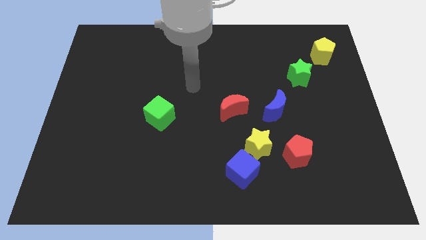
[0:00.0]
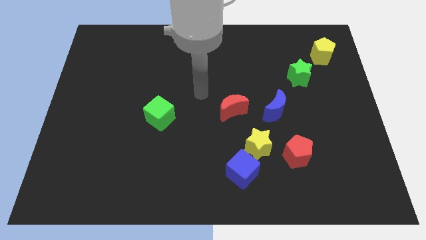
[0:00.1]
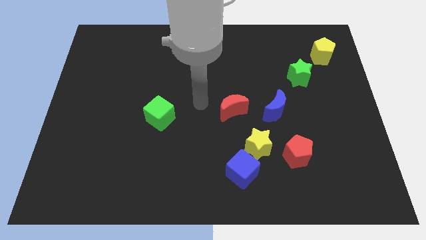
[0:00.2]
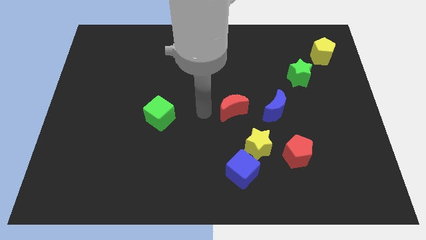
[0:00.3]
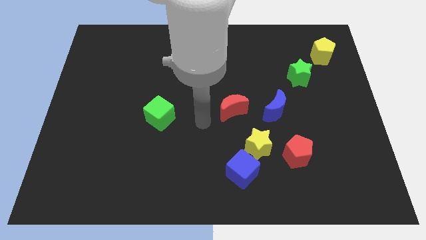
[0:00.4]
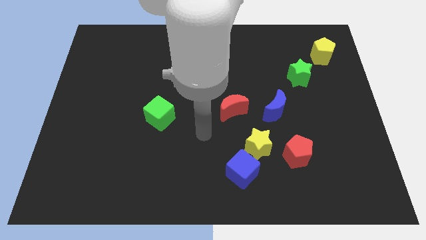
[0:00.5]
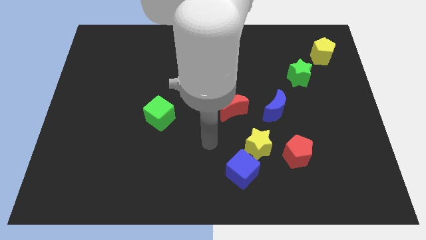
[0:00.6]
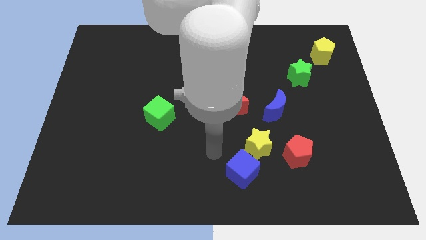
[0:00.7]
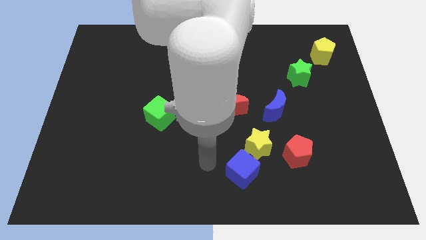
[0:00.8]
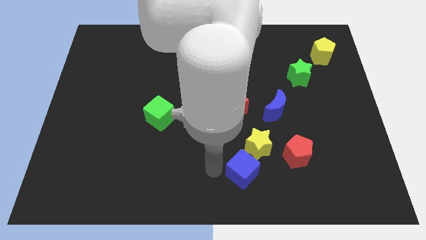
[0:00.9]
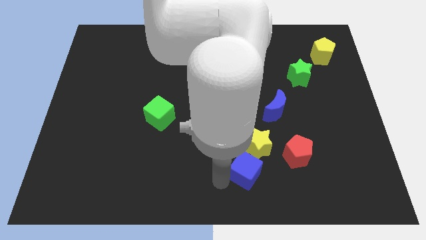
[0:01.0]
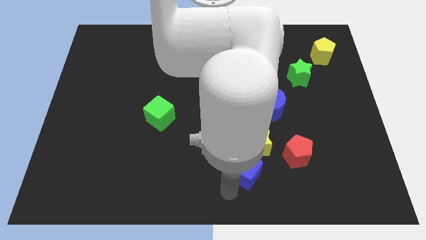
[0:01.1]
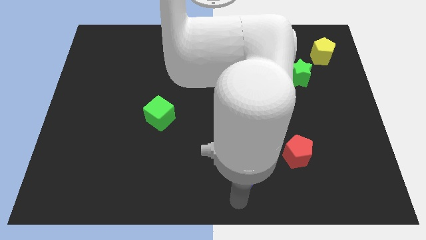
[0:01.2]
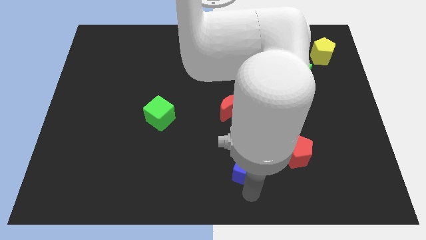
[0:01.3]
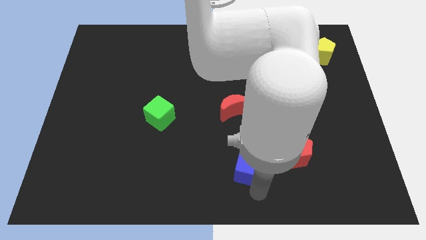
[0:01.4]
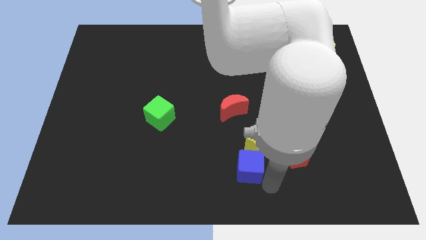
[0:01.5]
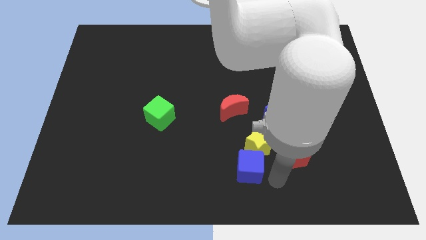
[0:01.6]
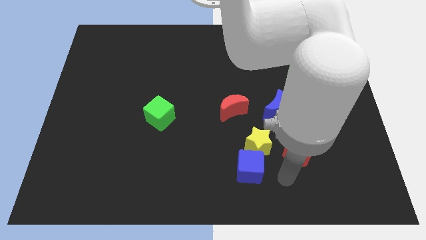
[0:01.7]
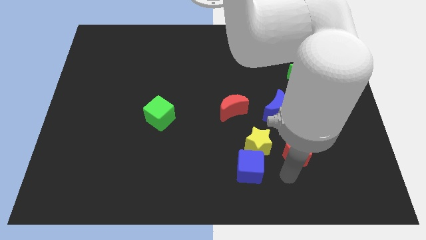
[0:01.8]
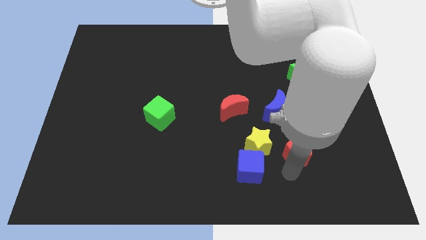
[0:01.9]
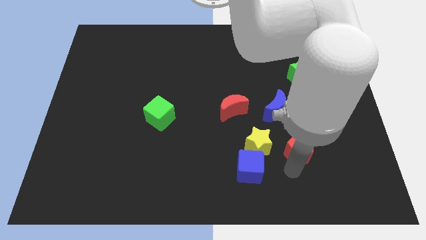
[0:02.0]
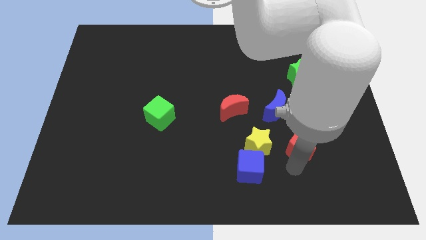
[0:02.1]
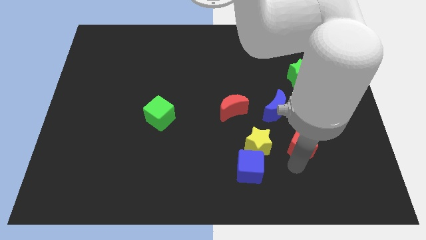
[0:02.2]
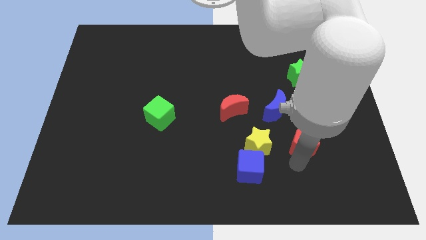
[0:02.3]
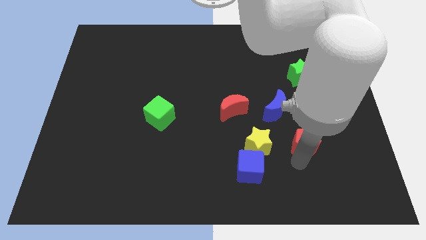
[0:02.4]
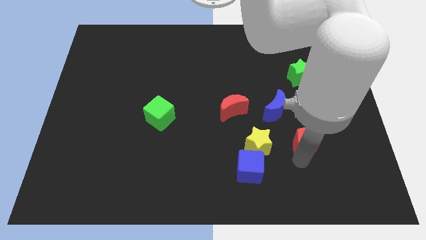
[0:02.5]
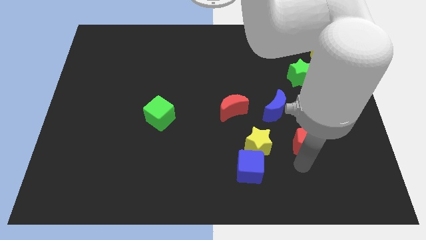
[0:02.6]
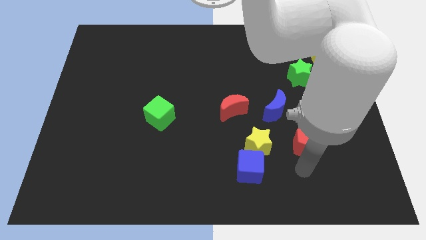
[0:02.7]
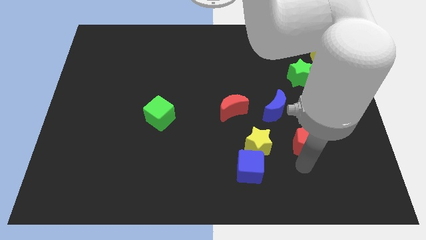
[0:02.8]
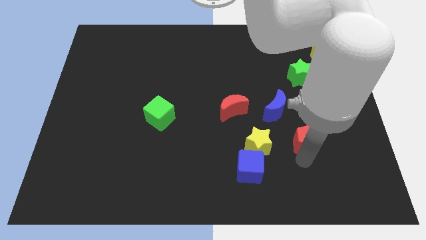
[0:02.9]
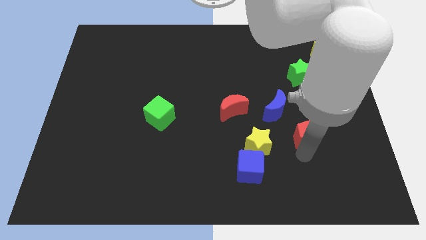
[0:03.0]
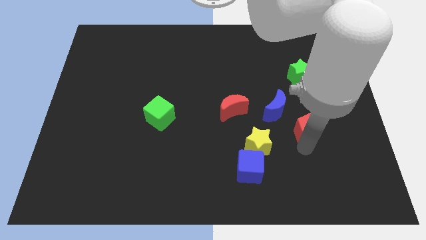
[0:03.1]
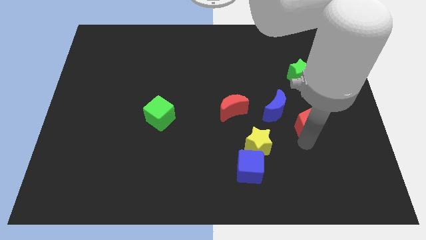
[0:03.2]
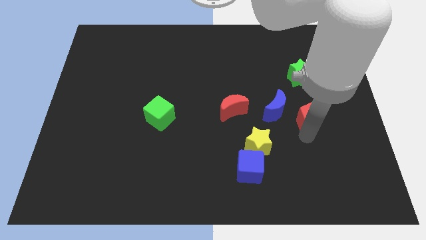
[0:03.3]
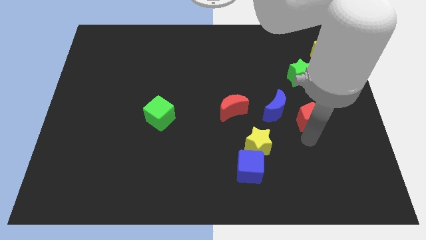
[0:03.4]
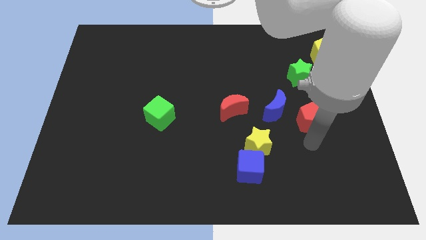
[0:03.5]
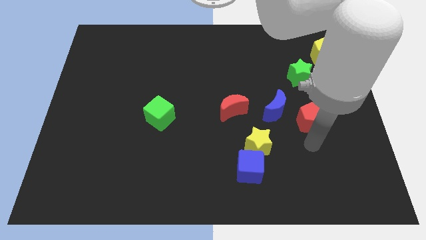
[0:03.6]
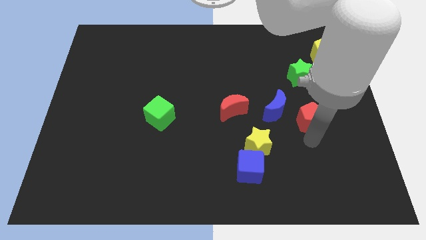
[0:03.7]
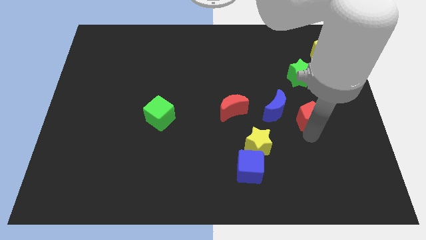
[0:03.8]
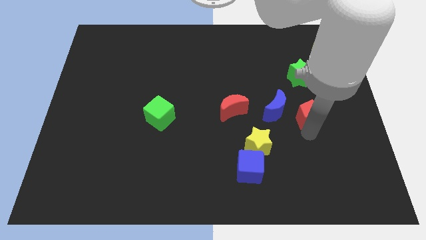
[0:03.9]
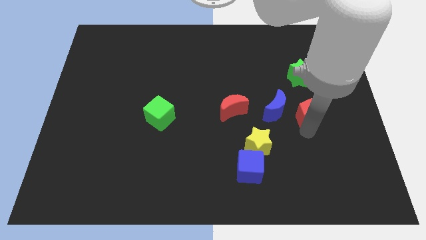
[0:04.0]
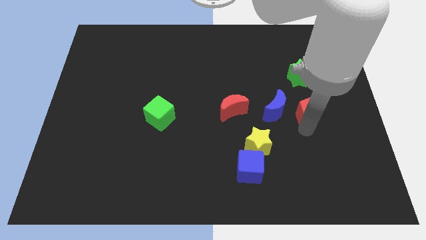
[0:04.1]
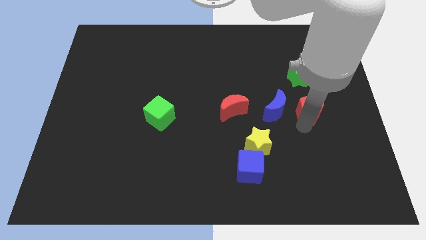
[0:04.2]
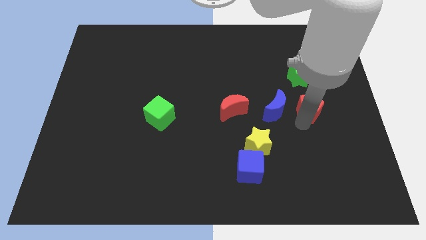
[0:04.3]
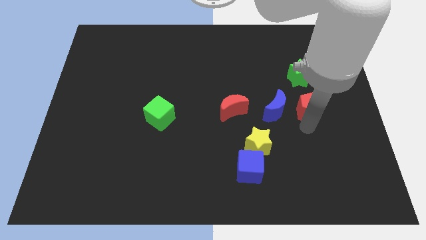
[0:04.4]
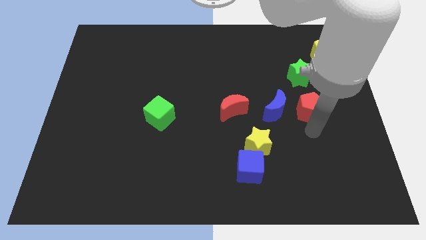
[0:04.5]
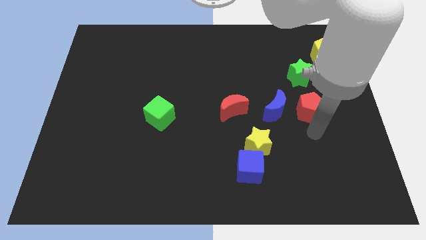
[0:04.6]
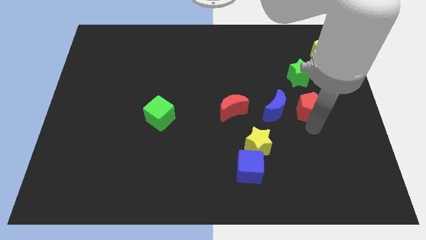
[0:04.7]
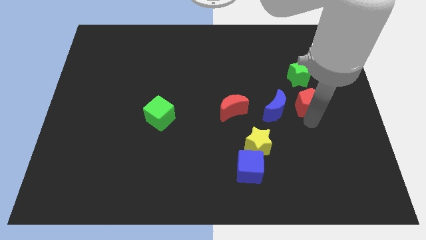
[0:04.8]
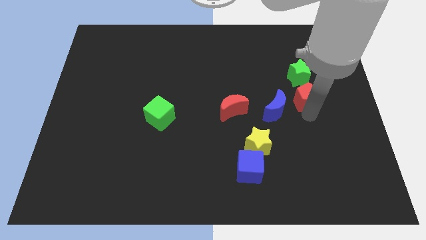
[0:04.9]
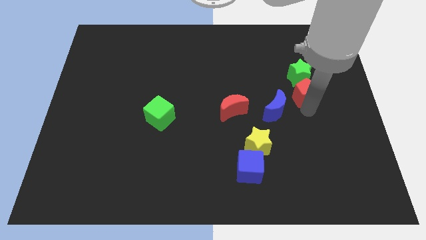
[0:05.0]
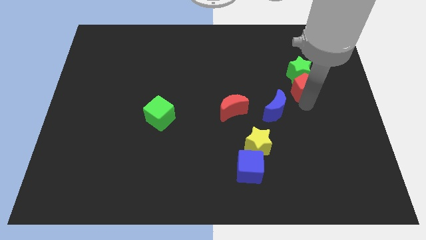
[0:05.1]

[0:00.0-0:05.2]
put the red pentagon next to the green star

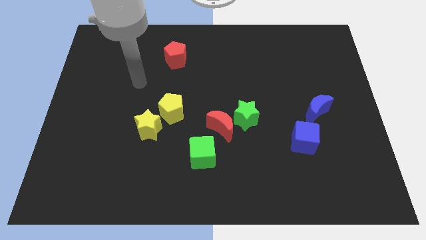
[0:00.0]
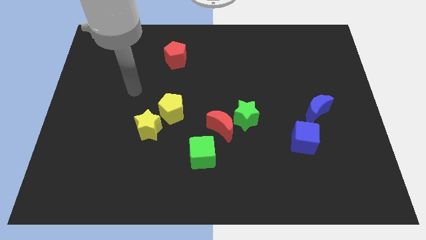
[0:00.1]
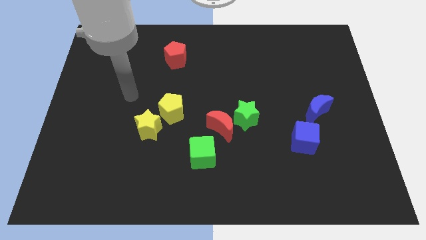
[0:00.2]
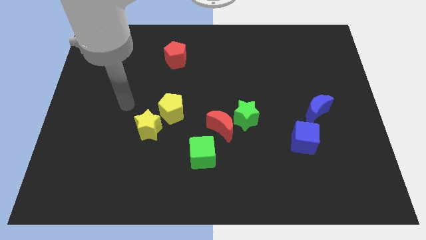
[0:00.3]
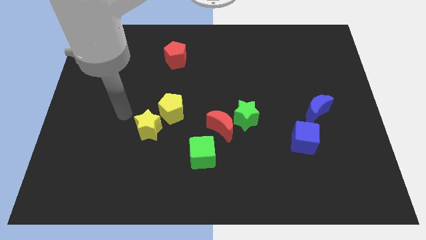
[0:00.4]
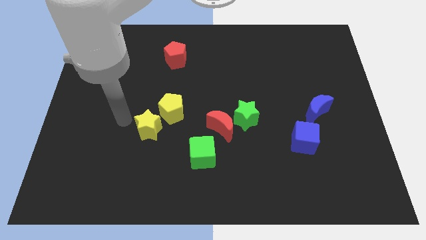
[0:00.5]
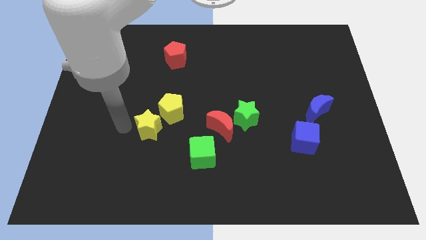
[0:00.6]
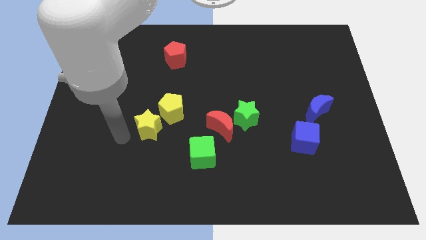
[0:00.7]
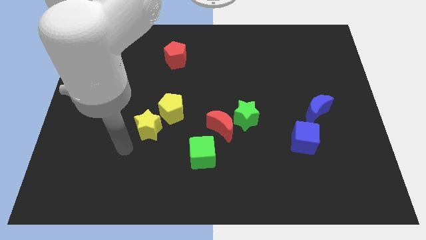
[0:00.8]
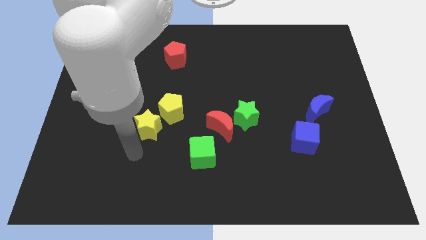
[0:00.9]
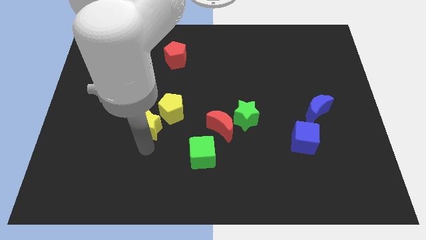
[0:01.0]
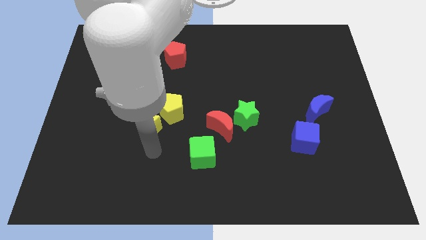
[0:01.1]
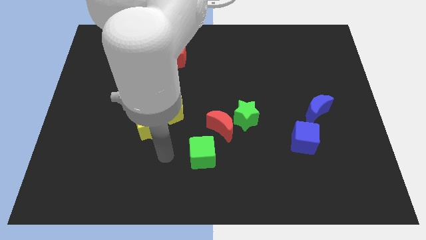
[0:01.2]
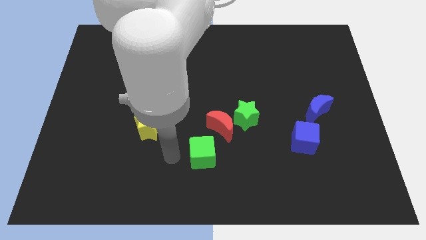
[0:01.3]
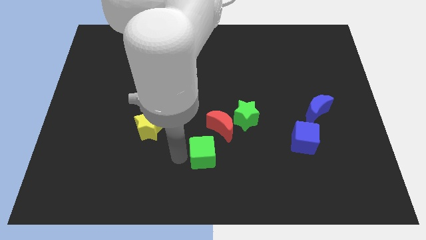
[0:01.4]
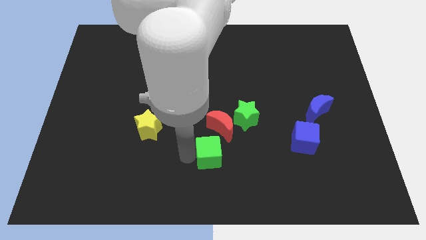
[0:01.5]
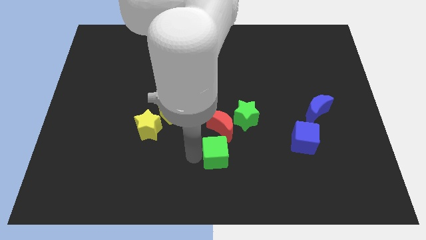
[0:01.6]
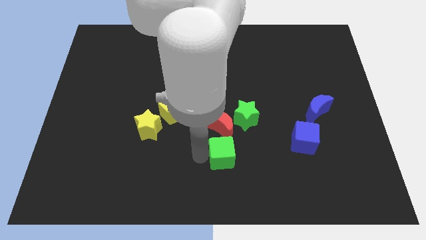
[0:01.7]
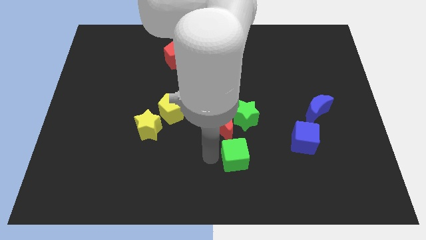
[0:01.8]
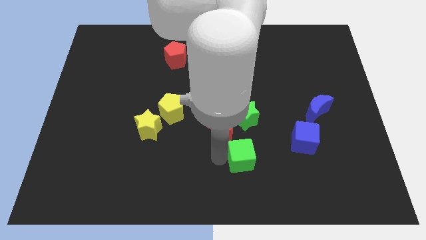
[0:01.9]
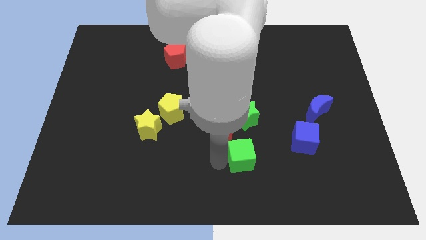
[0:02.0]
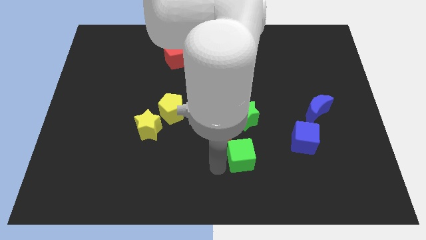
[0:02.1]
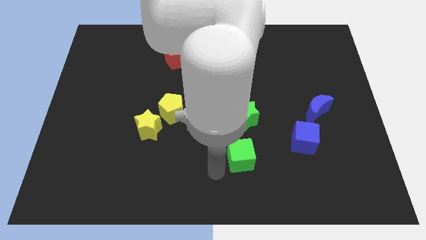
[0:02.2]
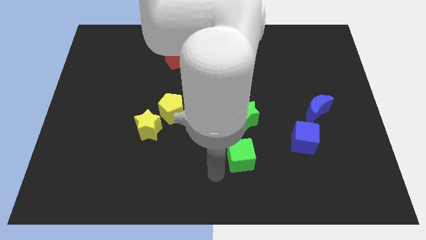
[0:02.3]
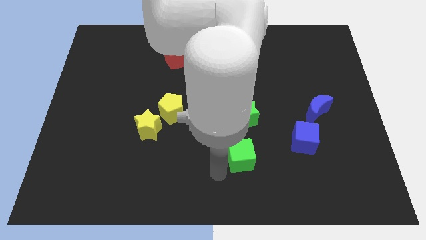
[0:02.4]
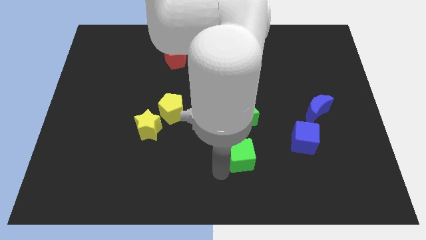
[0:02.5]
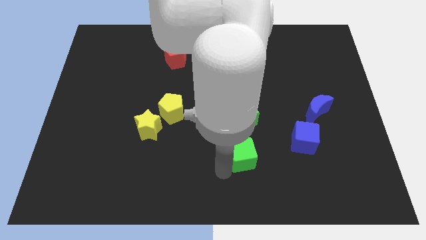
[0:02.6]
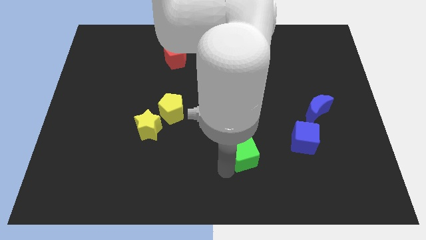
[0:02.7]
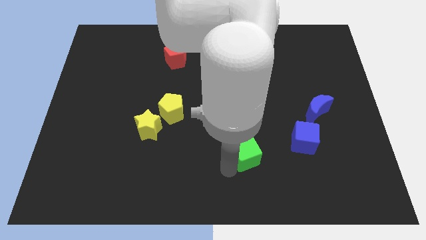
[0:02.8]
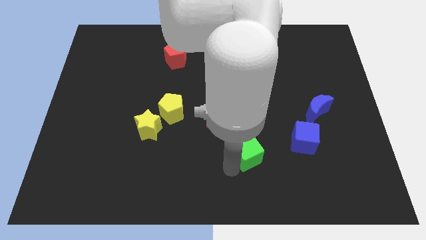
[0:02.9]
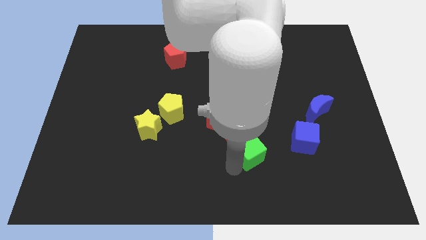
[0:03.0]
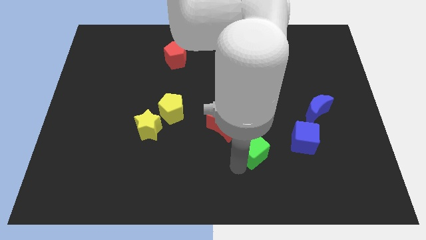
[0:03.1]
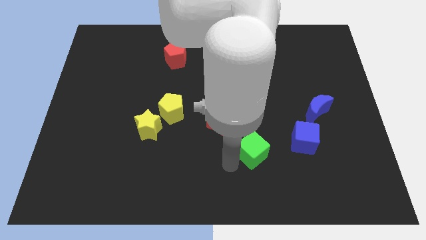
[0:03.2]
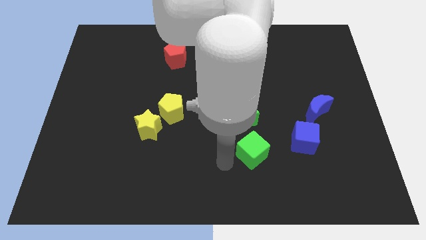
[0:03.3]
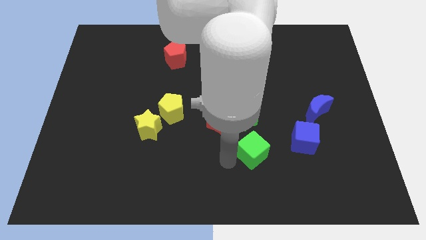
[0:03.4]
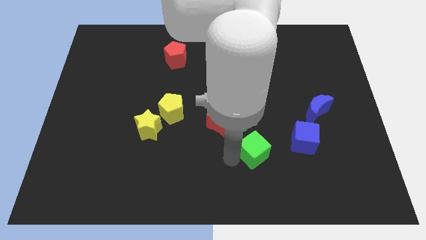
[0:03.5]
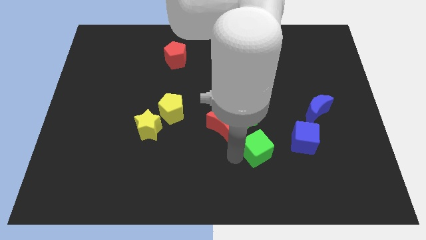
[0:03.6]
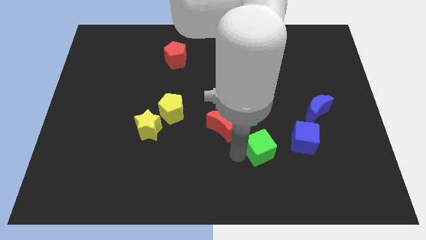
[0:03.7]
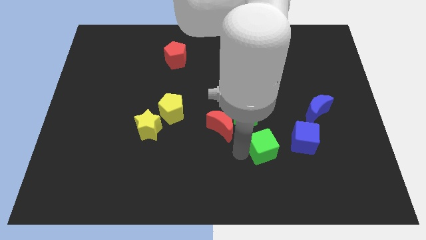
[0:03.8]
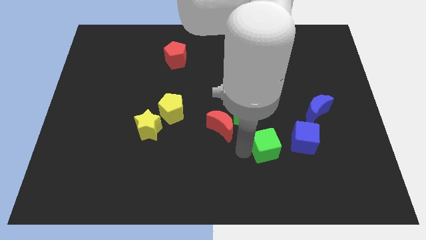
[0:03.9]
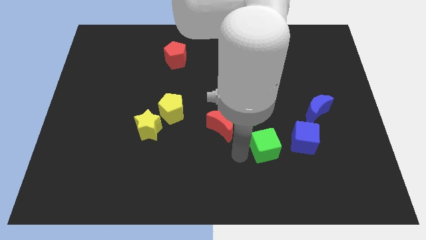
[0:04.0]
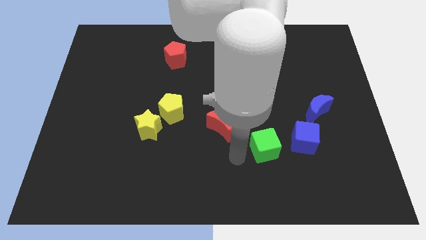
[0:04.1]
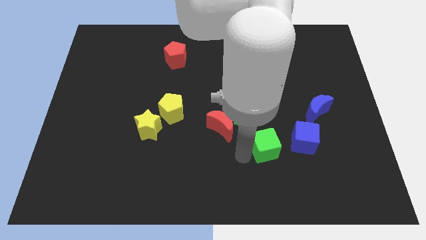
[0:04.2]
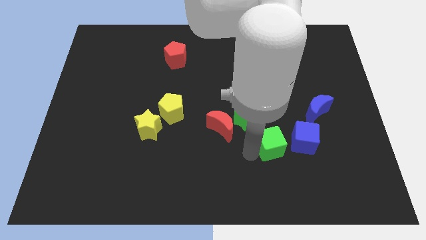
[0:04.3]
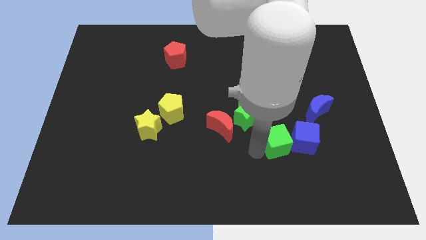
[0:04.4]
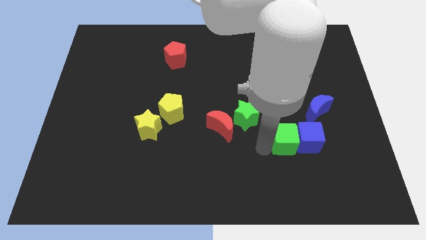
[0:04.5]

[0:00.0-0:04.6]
move the green cube next to the blue cube
